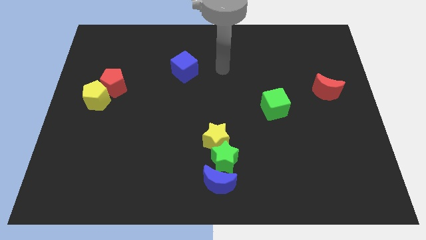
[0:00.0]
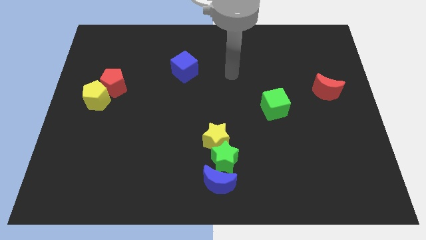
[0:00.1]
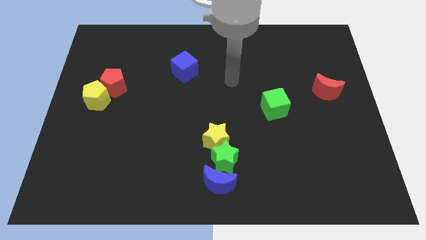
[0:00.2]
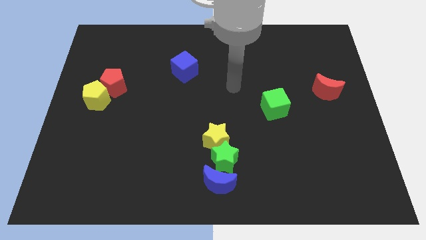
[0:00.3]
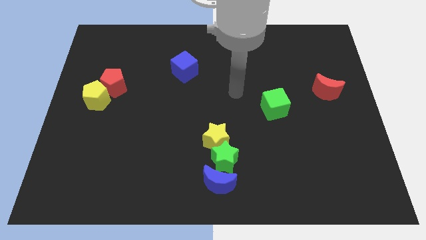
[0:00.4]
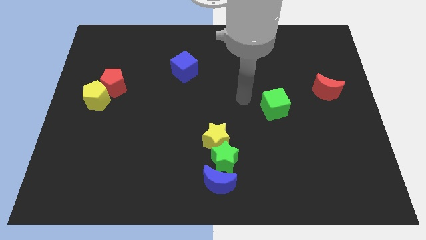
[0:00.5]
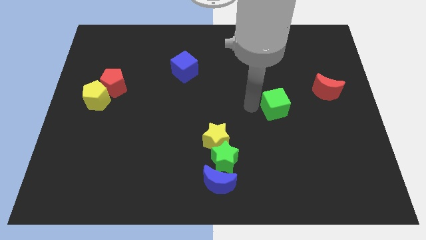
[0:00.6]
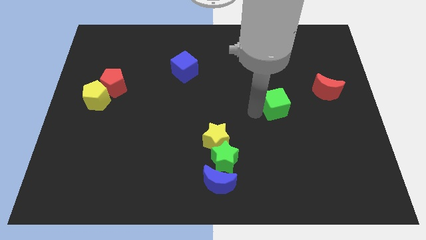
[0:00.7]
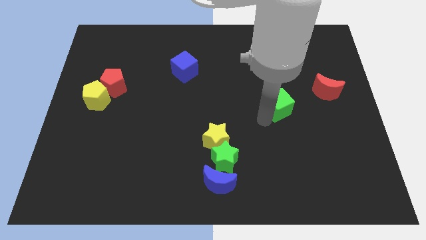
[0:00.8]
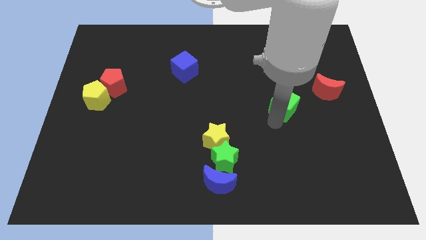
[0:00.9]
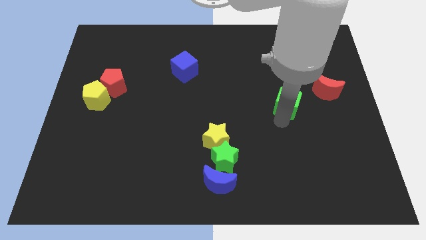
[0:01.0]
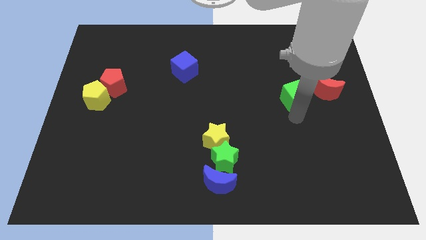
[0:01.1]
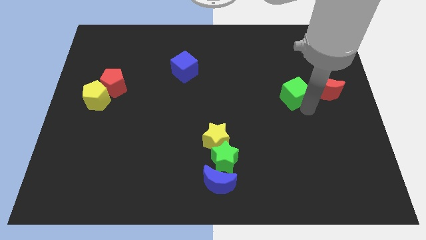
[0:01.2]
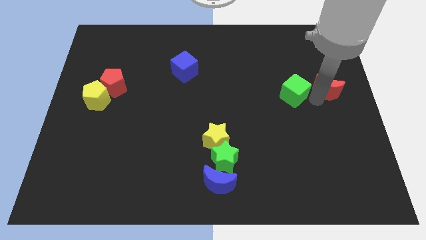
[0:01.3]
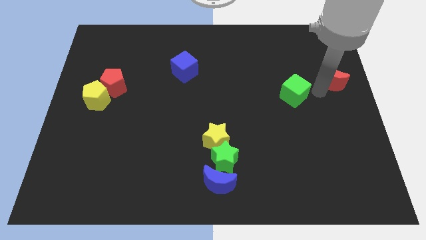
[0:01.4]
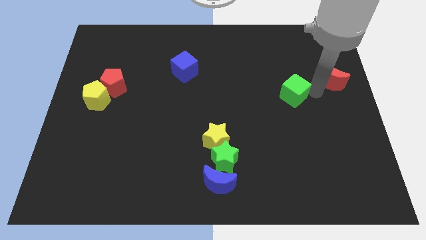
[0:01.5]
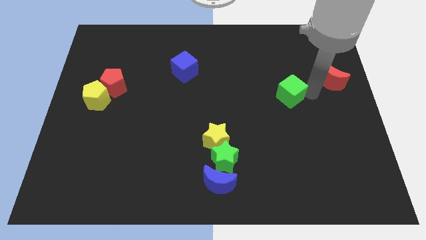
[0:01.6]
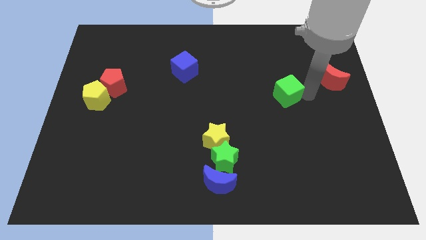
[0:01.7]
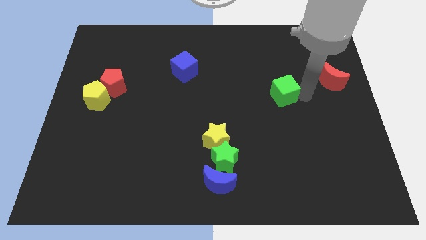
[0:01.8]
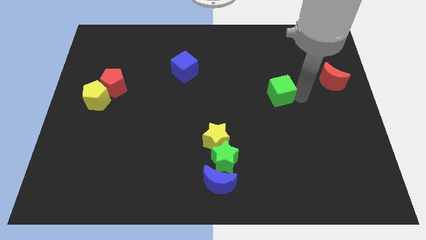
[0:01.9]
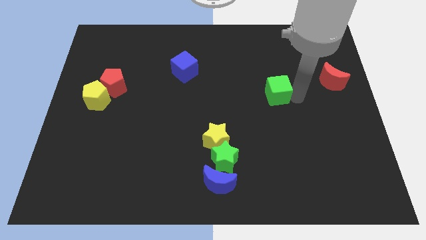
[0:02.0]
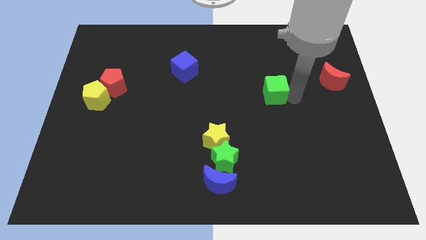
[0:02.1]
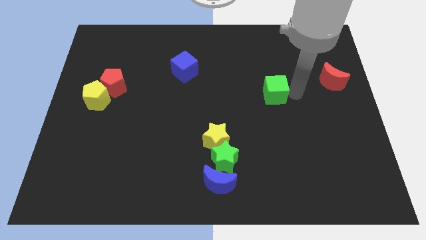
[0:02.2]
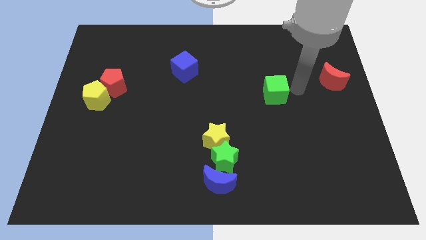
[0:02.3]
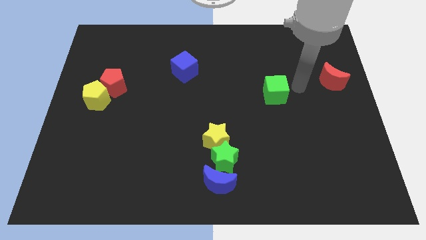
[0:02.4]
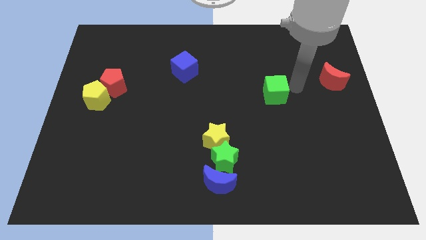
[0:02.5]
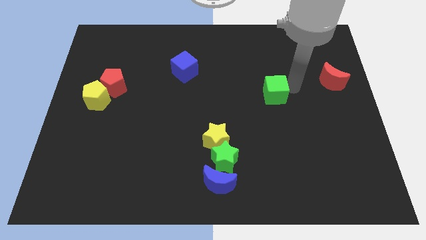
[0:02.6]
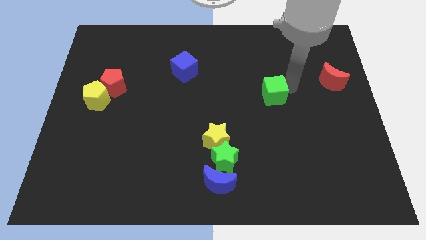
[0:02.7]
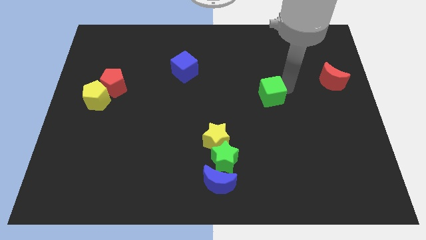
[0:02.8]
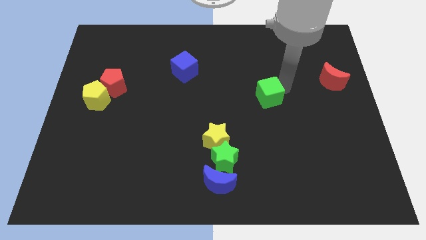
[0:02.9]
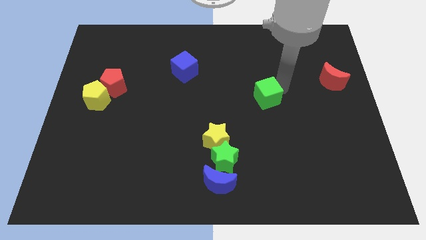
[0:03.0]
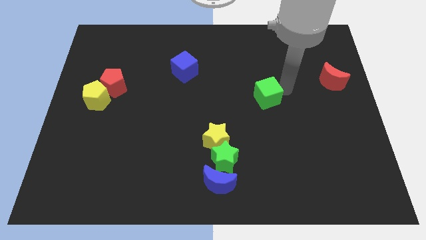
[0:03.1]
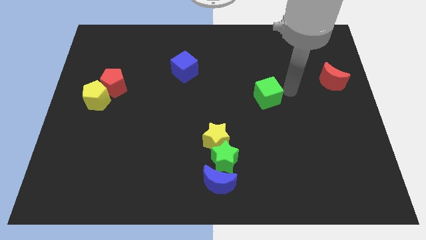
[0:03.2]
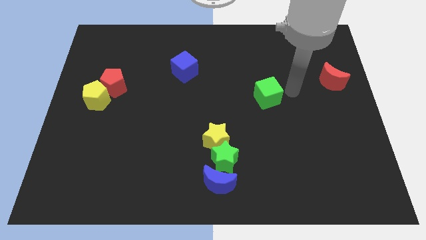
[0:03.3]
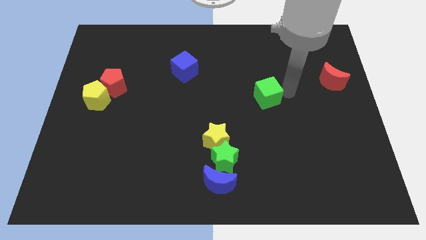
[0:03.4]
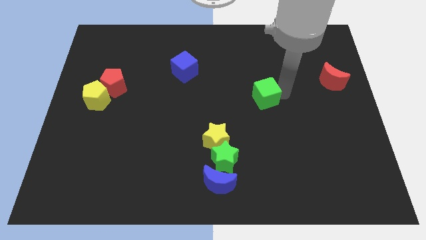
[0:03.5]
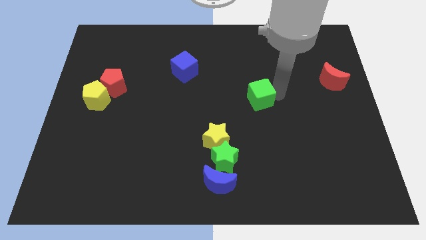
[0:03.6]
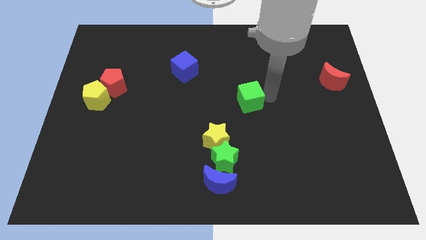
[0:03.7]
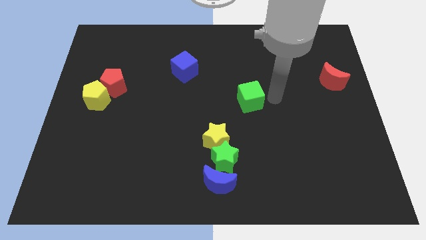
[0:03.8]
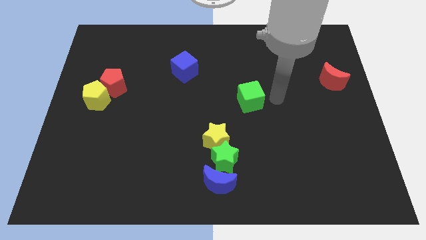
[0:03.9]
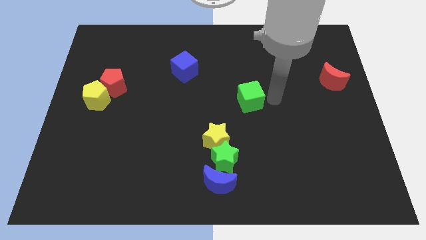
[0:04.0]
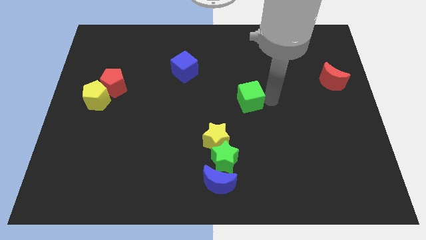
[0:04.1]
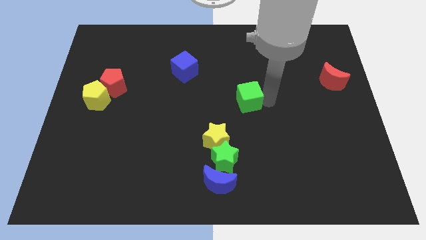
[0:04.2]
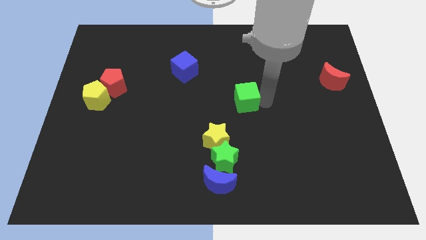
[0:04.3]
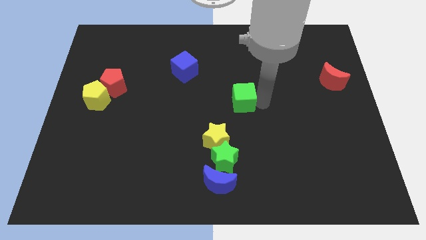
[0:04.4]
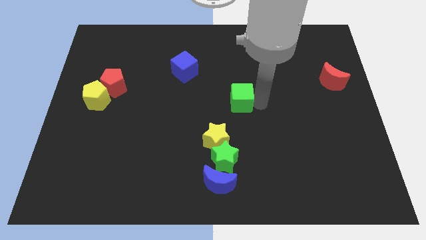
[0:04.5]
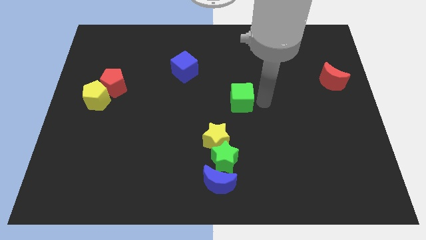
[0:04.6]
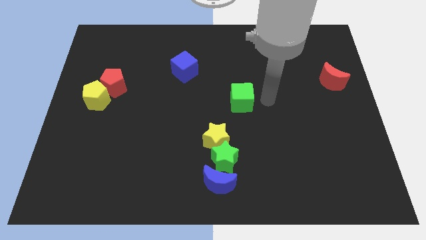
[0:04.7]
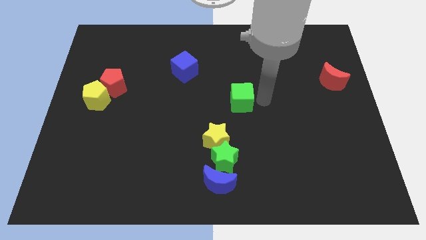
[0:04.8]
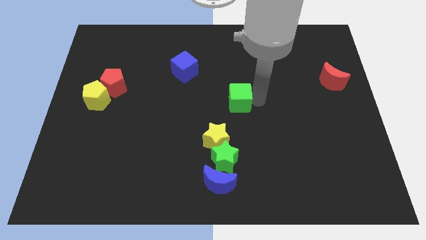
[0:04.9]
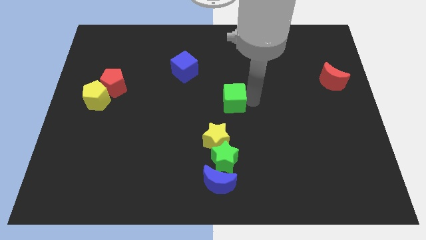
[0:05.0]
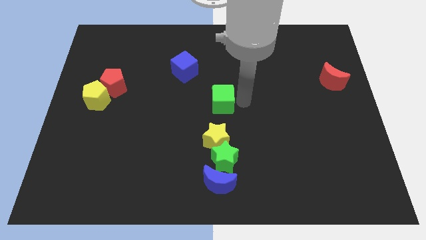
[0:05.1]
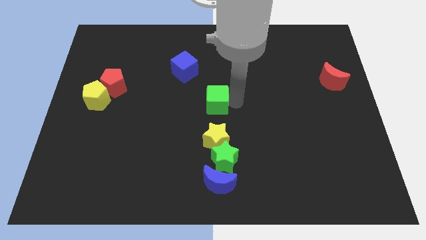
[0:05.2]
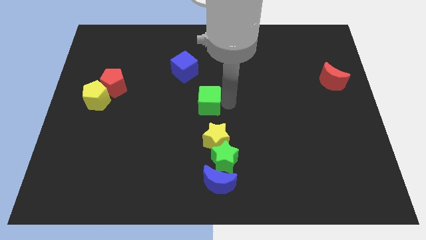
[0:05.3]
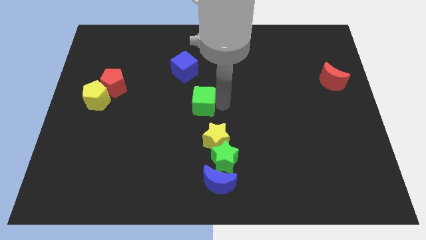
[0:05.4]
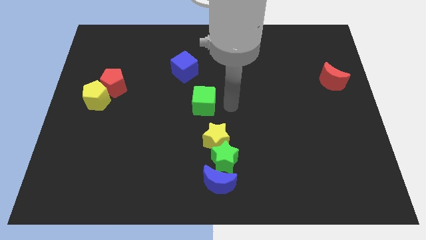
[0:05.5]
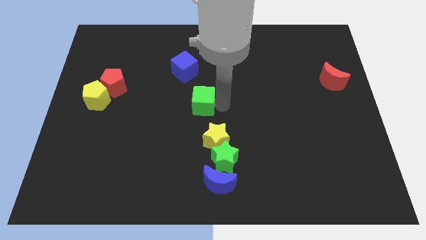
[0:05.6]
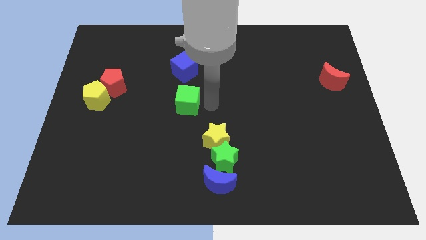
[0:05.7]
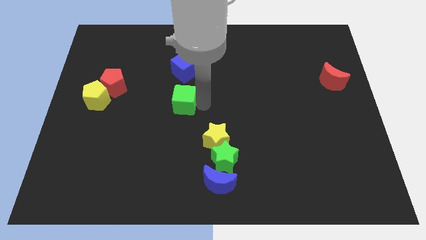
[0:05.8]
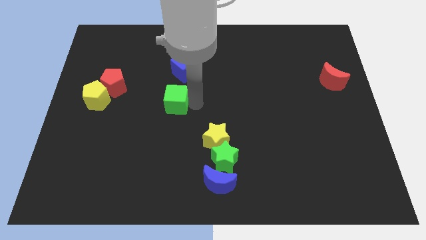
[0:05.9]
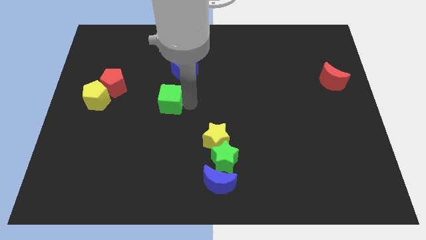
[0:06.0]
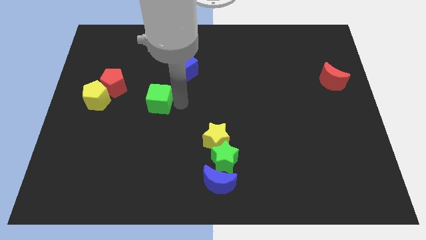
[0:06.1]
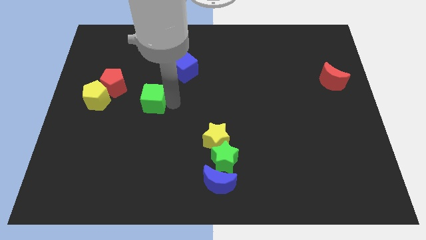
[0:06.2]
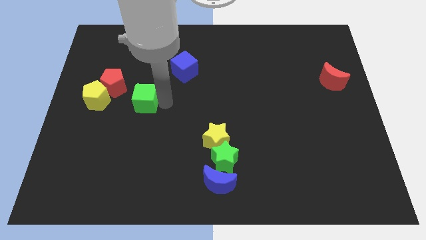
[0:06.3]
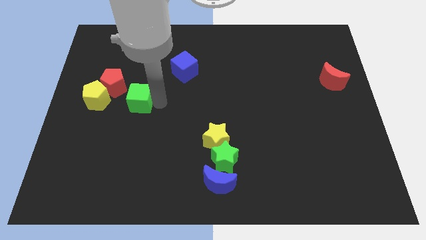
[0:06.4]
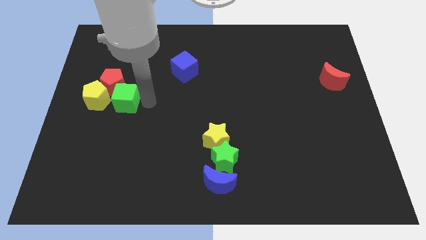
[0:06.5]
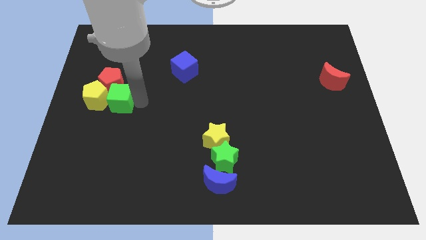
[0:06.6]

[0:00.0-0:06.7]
put the green cube close to the yellow pentagon

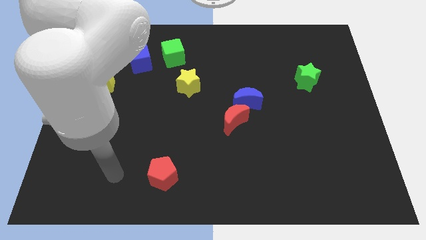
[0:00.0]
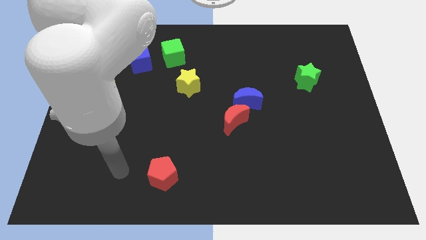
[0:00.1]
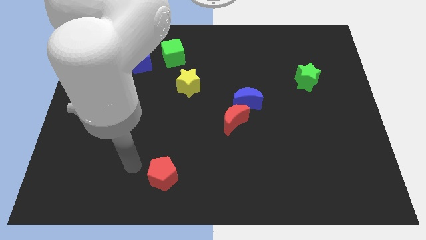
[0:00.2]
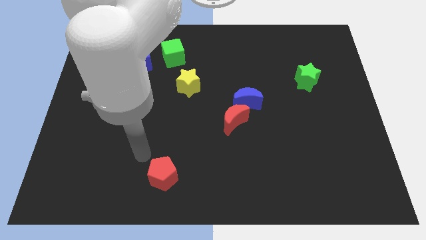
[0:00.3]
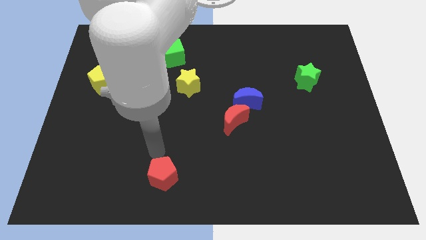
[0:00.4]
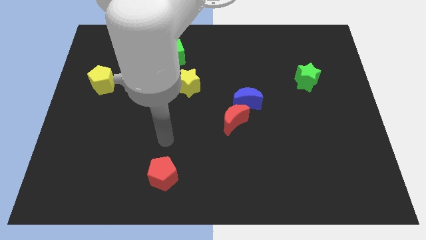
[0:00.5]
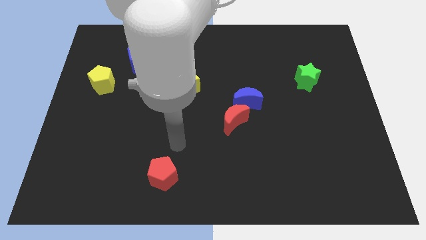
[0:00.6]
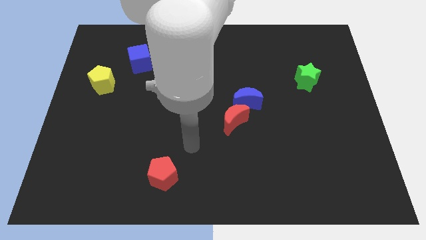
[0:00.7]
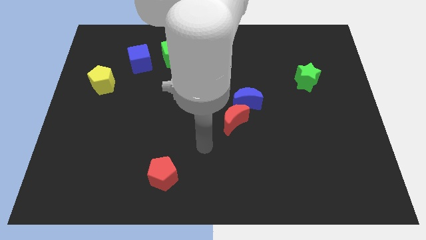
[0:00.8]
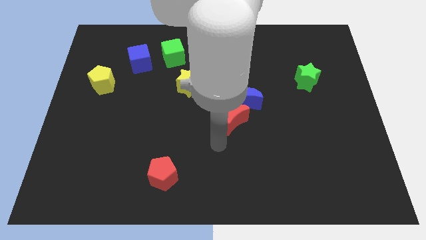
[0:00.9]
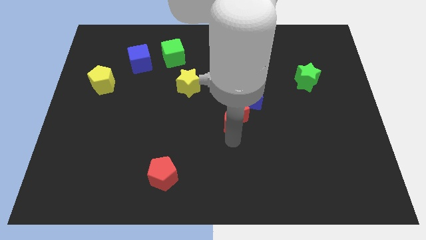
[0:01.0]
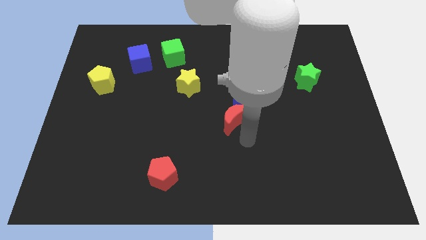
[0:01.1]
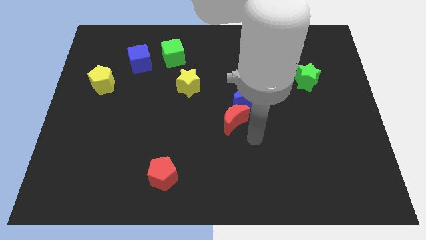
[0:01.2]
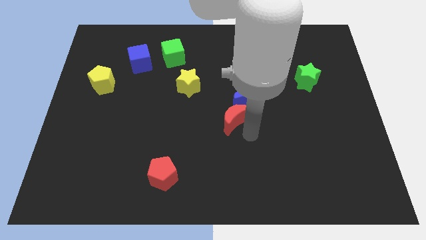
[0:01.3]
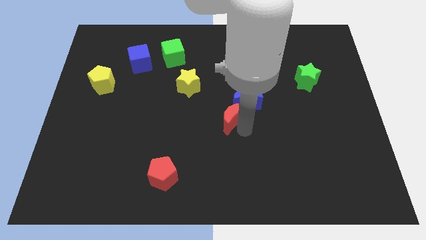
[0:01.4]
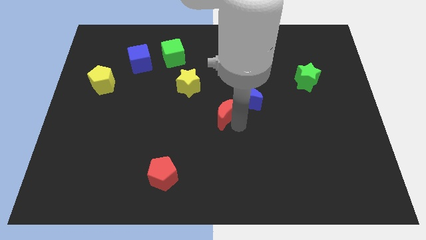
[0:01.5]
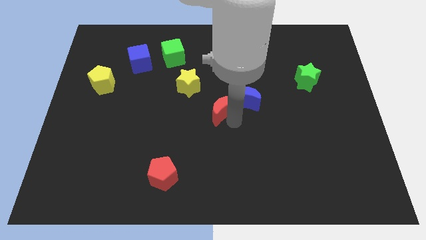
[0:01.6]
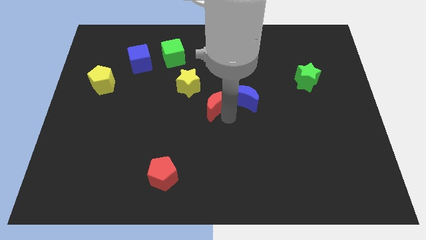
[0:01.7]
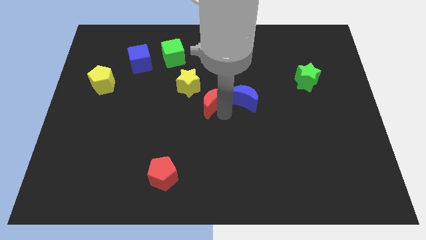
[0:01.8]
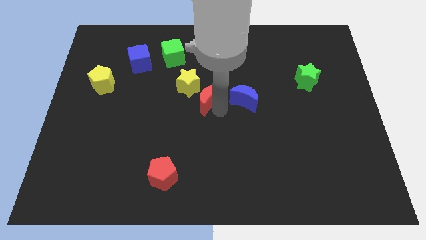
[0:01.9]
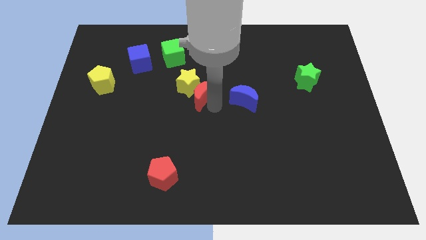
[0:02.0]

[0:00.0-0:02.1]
push the red moon next to the yellow star
